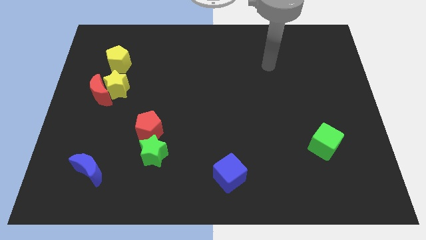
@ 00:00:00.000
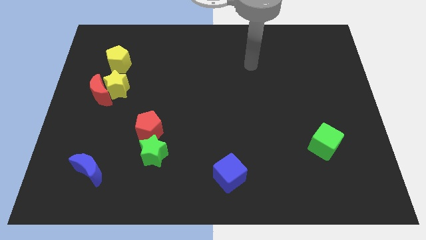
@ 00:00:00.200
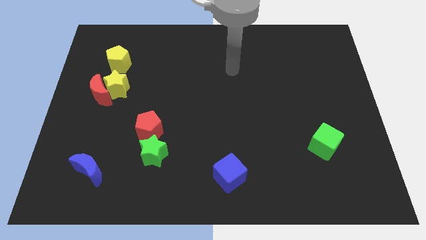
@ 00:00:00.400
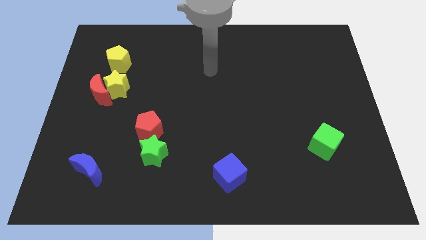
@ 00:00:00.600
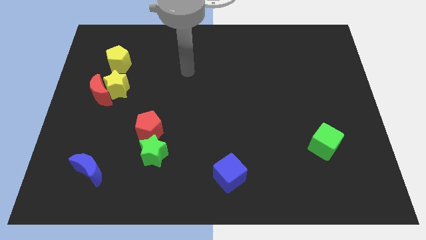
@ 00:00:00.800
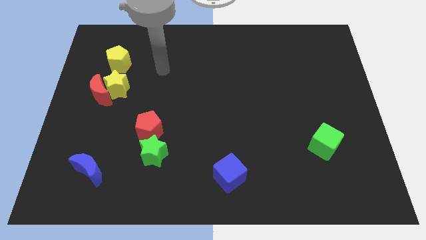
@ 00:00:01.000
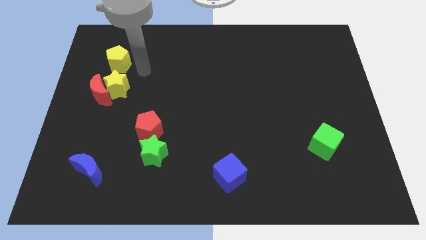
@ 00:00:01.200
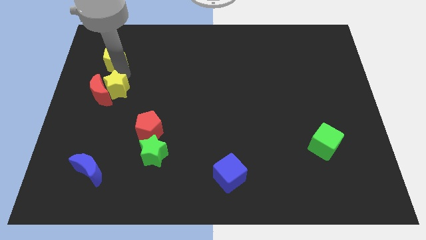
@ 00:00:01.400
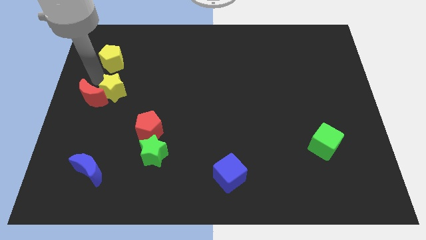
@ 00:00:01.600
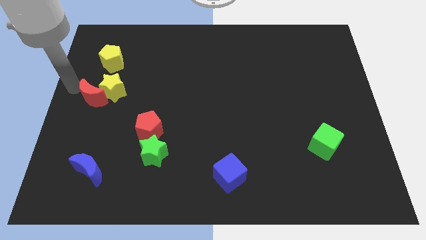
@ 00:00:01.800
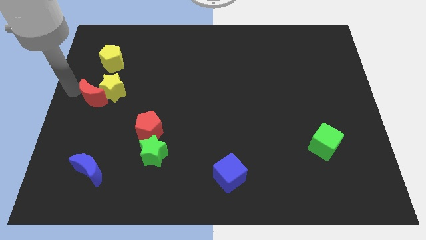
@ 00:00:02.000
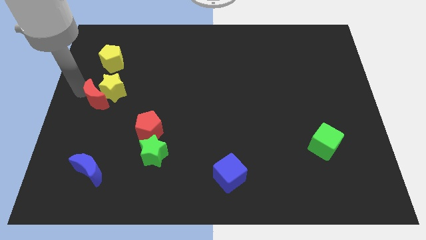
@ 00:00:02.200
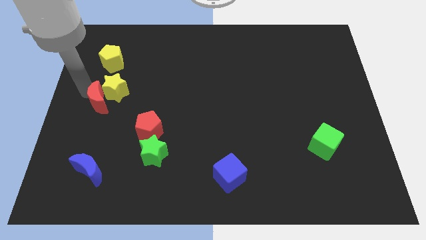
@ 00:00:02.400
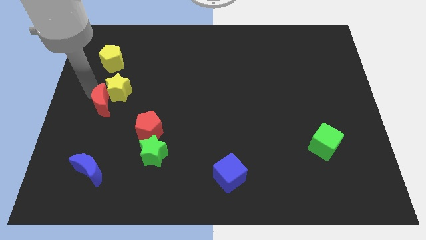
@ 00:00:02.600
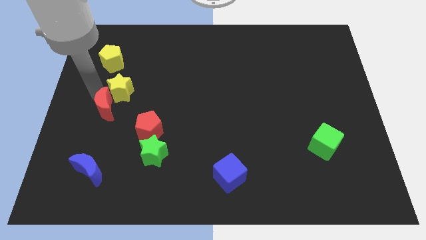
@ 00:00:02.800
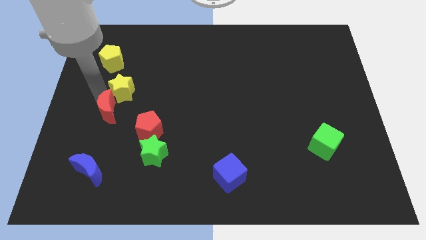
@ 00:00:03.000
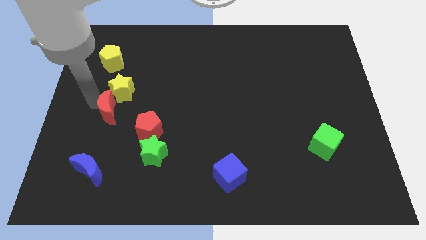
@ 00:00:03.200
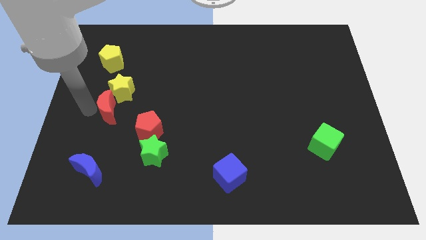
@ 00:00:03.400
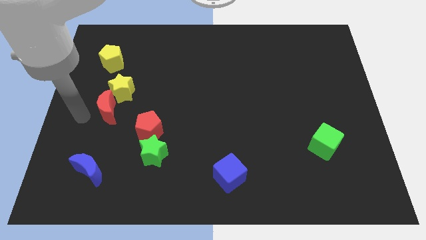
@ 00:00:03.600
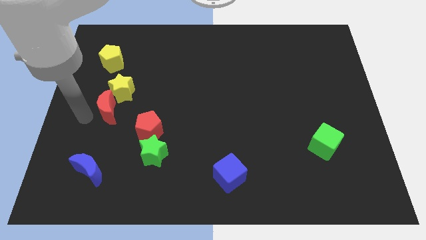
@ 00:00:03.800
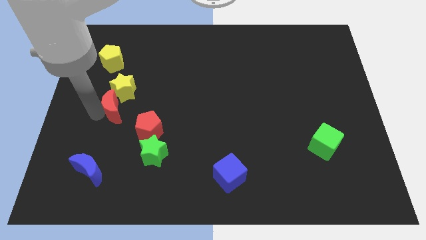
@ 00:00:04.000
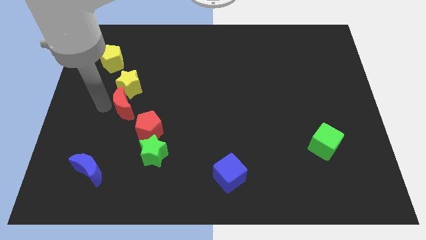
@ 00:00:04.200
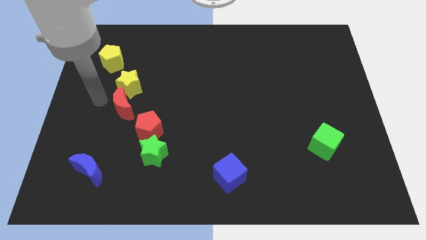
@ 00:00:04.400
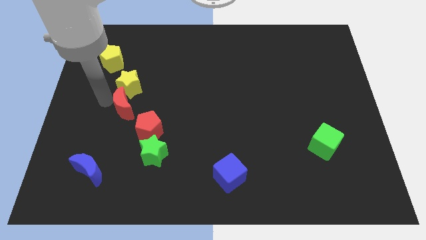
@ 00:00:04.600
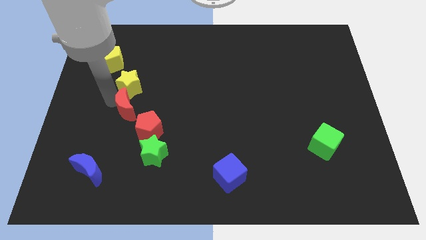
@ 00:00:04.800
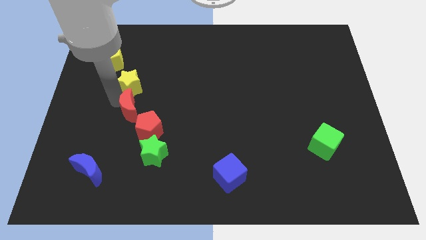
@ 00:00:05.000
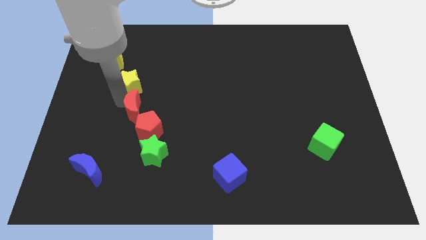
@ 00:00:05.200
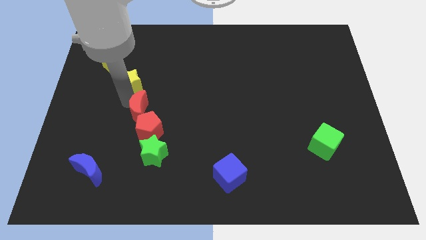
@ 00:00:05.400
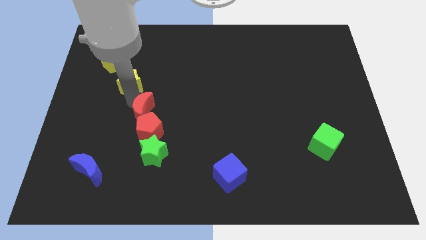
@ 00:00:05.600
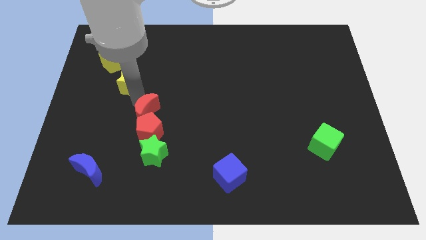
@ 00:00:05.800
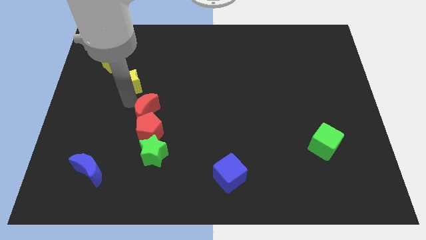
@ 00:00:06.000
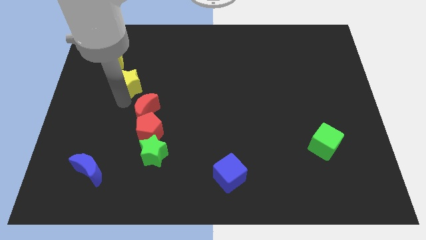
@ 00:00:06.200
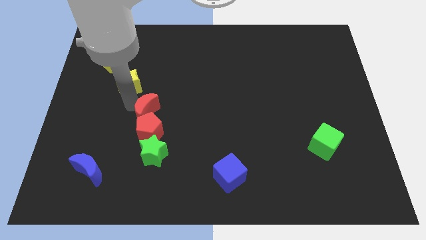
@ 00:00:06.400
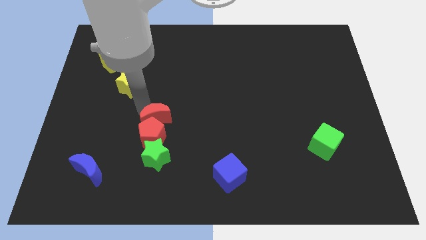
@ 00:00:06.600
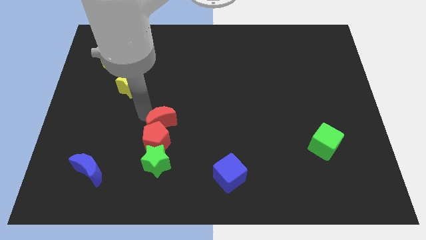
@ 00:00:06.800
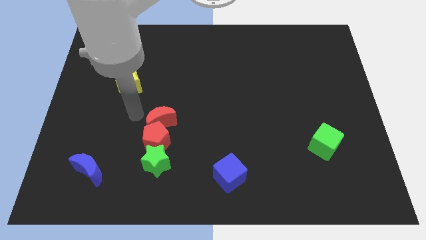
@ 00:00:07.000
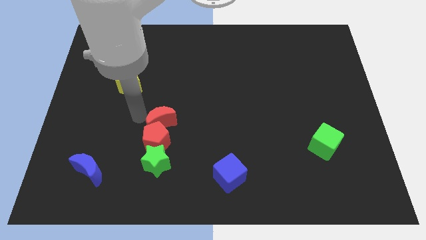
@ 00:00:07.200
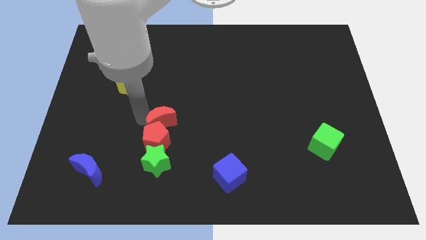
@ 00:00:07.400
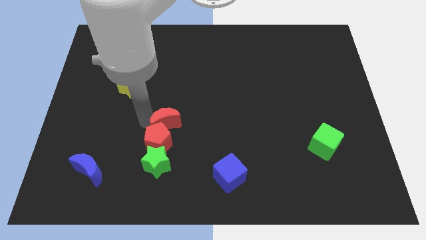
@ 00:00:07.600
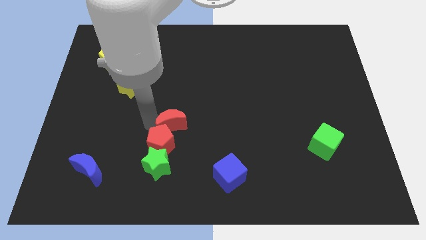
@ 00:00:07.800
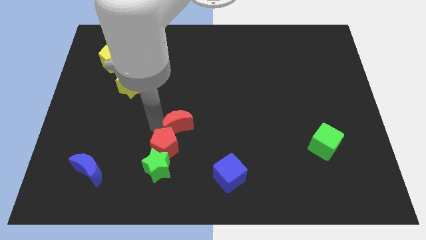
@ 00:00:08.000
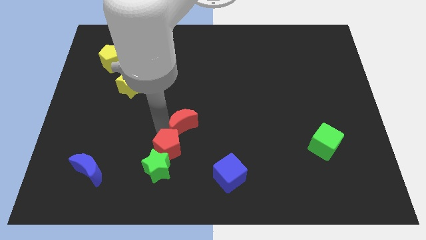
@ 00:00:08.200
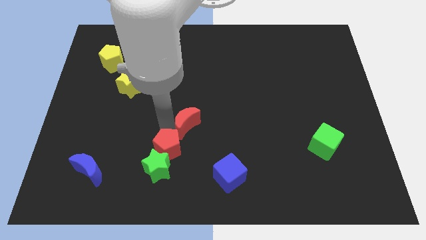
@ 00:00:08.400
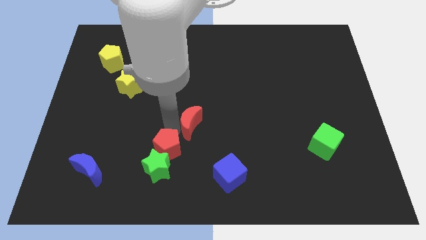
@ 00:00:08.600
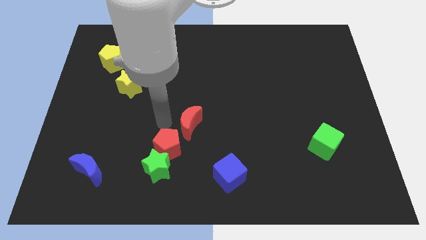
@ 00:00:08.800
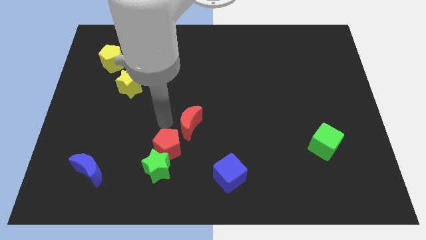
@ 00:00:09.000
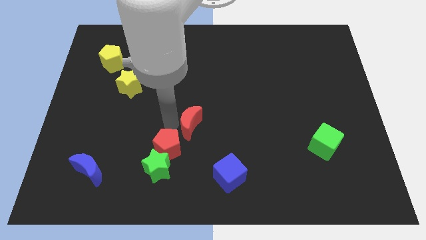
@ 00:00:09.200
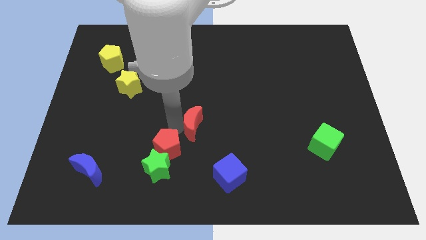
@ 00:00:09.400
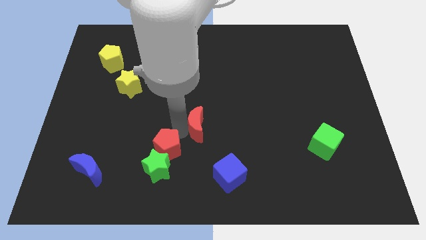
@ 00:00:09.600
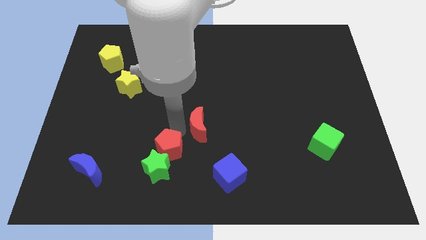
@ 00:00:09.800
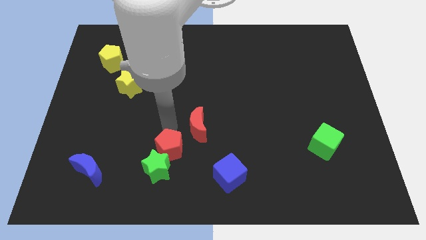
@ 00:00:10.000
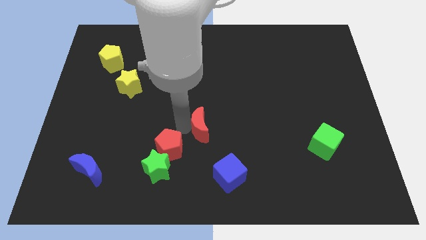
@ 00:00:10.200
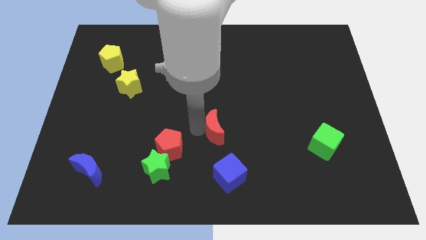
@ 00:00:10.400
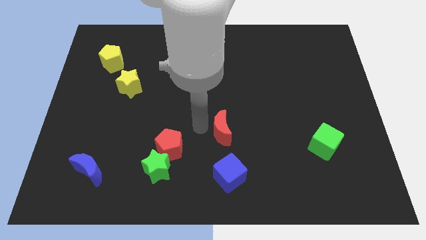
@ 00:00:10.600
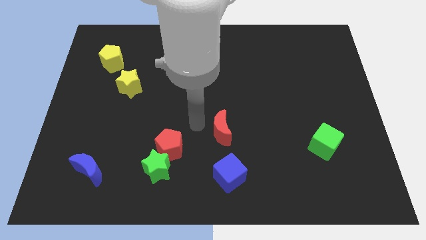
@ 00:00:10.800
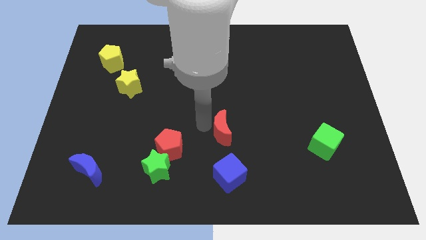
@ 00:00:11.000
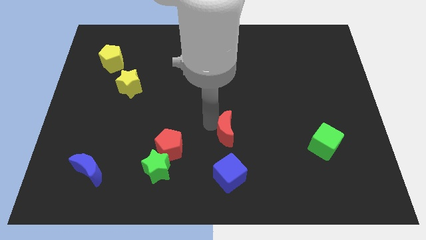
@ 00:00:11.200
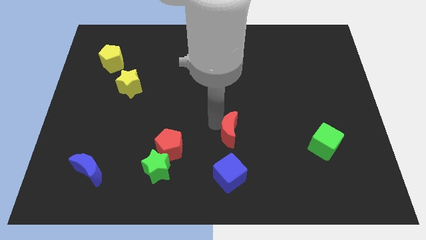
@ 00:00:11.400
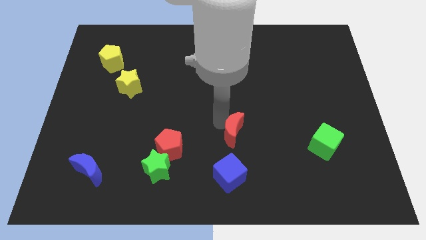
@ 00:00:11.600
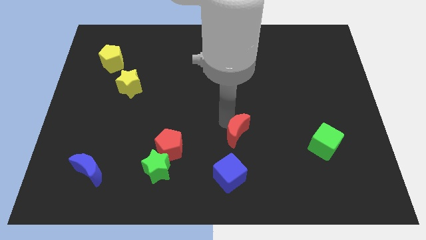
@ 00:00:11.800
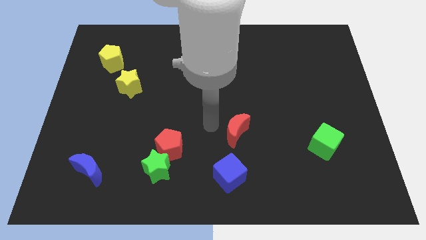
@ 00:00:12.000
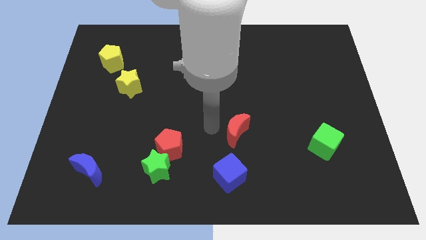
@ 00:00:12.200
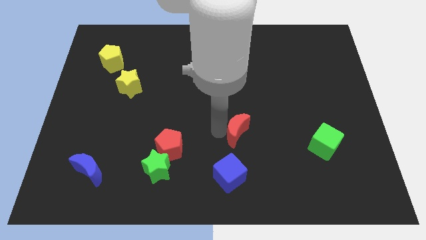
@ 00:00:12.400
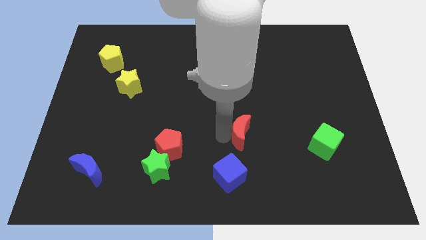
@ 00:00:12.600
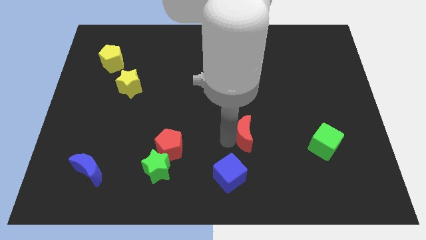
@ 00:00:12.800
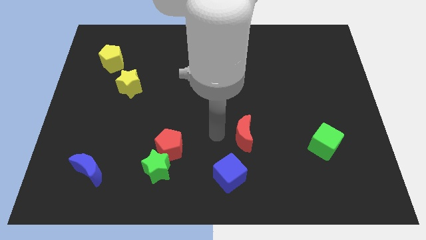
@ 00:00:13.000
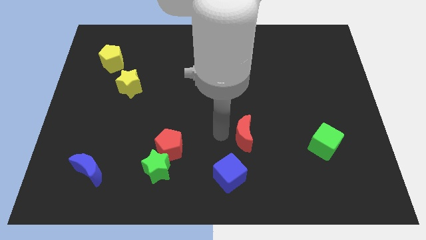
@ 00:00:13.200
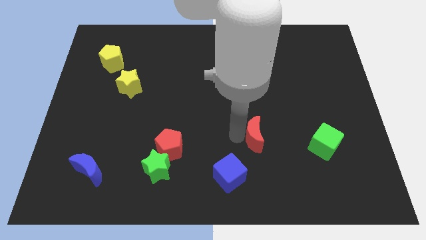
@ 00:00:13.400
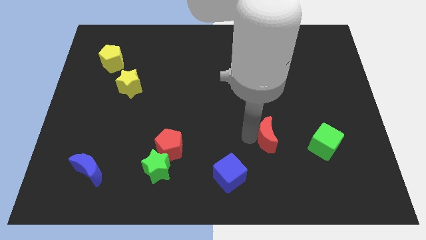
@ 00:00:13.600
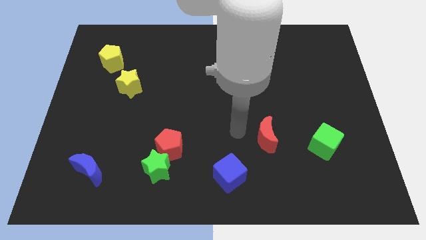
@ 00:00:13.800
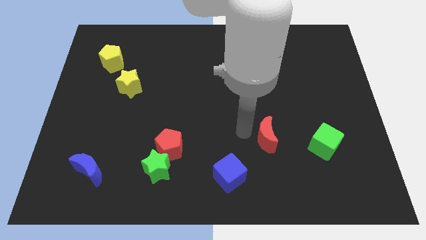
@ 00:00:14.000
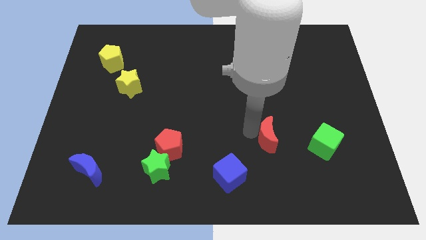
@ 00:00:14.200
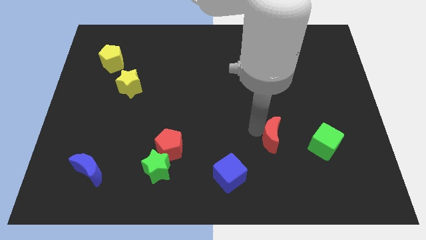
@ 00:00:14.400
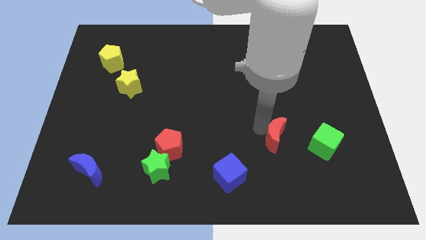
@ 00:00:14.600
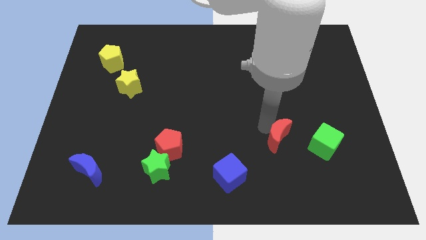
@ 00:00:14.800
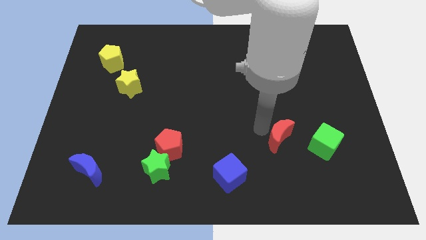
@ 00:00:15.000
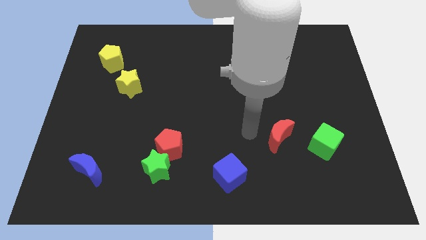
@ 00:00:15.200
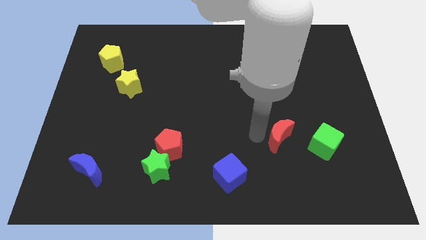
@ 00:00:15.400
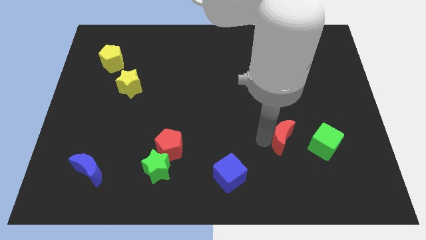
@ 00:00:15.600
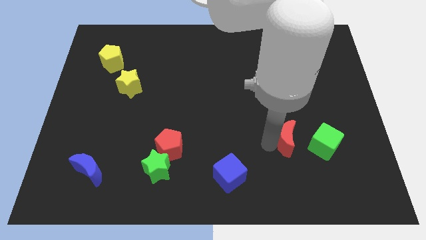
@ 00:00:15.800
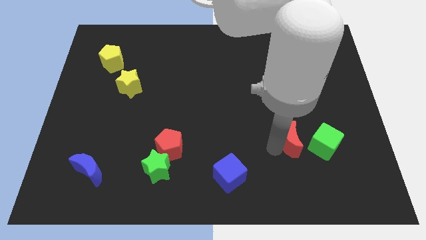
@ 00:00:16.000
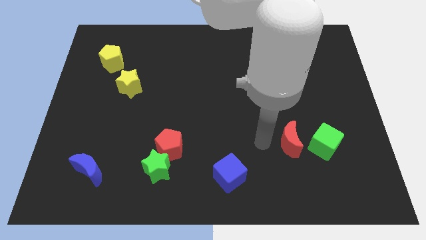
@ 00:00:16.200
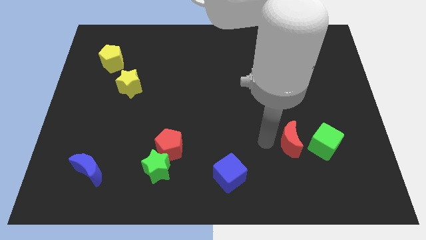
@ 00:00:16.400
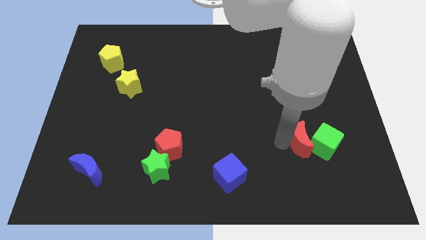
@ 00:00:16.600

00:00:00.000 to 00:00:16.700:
put the red moon close to the green cube
